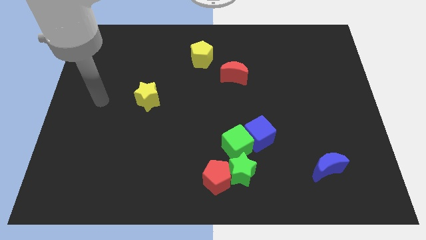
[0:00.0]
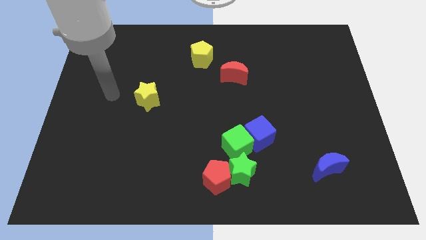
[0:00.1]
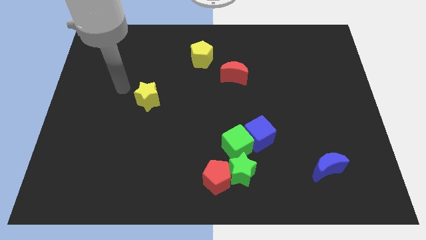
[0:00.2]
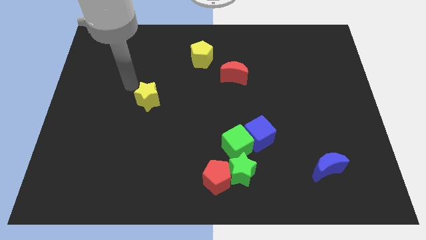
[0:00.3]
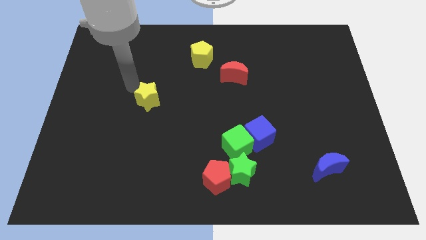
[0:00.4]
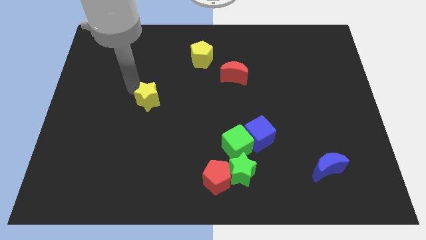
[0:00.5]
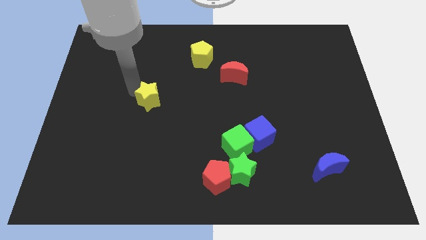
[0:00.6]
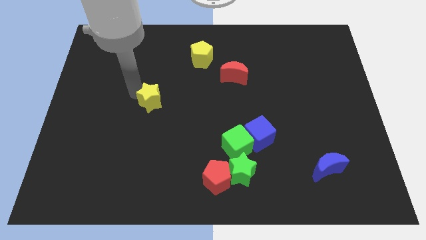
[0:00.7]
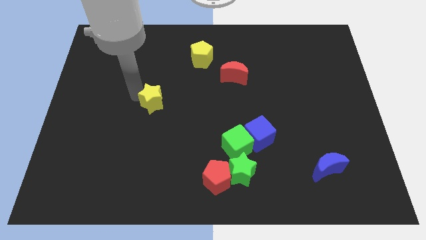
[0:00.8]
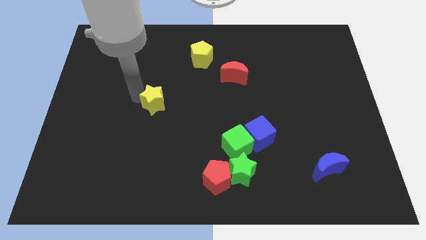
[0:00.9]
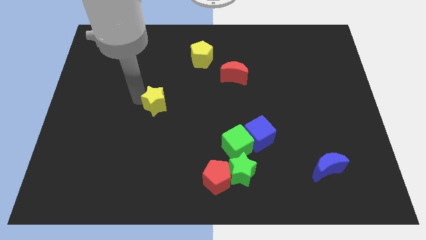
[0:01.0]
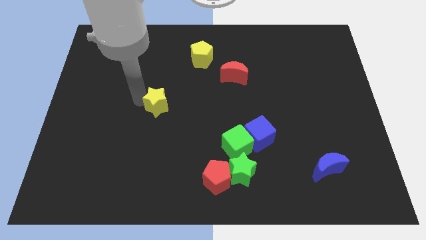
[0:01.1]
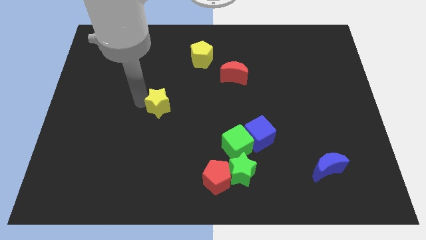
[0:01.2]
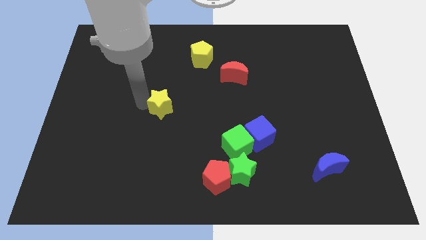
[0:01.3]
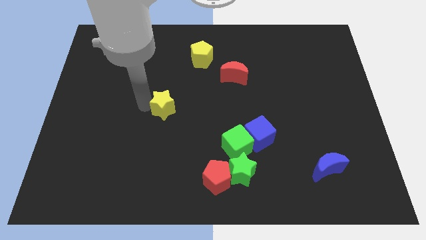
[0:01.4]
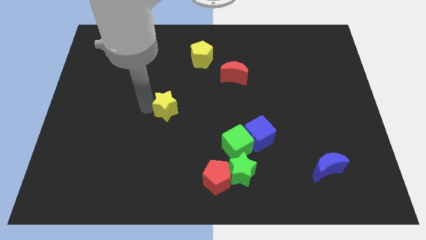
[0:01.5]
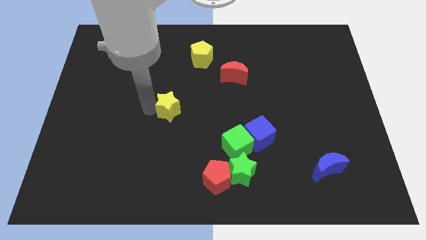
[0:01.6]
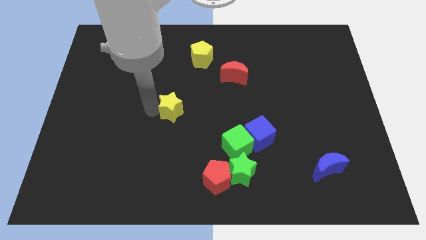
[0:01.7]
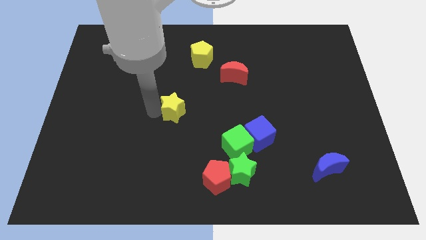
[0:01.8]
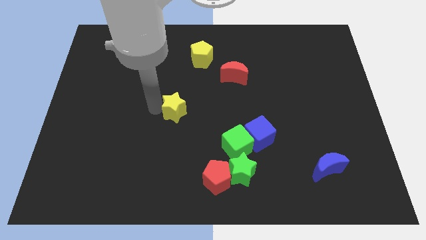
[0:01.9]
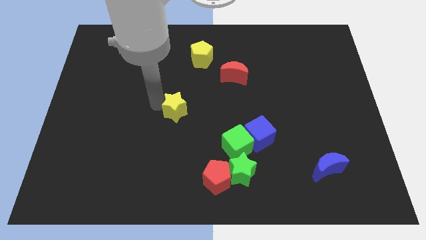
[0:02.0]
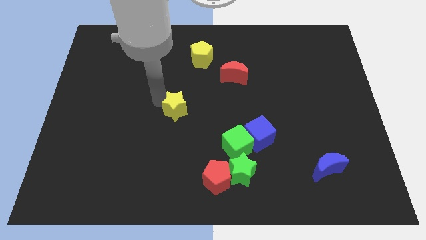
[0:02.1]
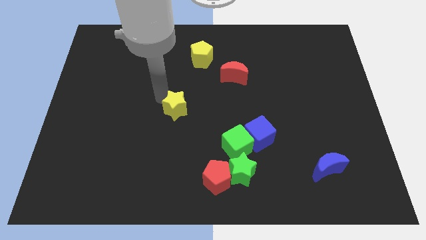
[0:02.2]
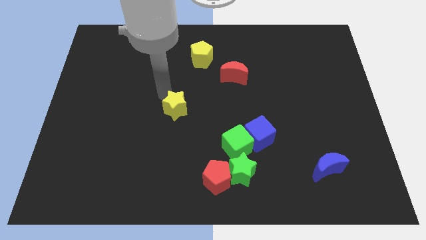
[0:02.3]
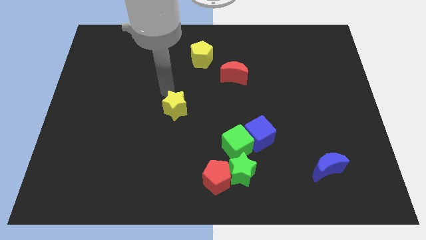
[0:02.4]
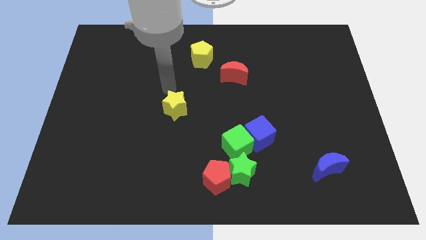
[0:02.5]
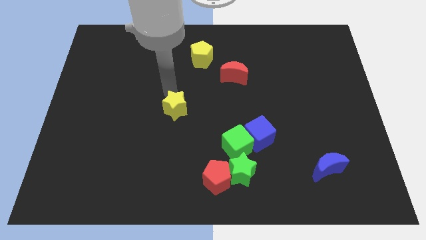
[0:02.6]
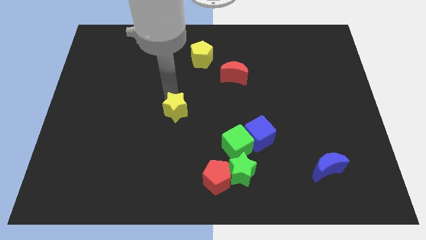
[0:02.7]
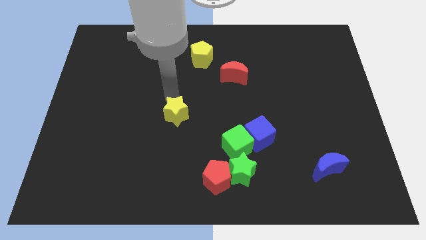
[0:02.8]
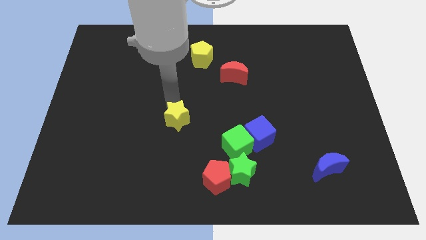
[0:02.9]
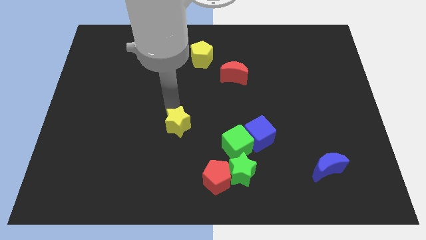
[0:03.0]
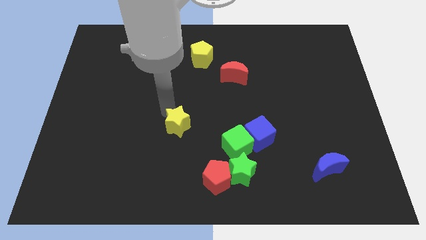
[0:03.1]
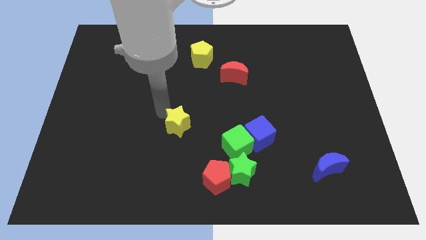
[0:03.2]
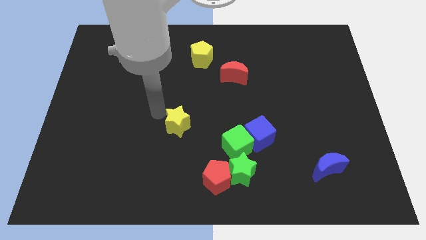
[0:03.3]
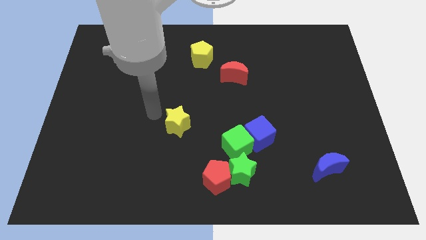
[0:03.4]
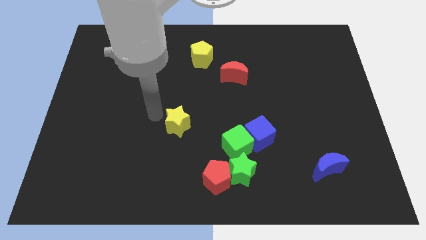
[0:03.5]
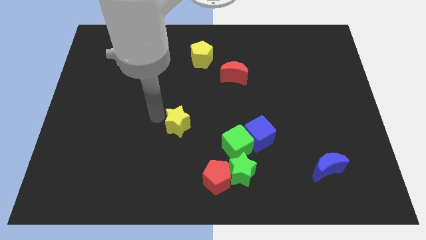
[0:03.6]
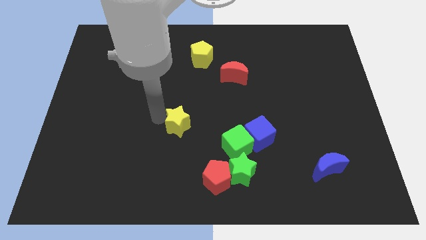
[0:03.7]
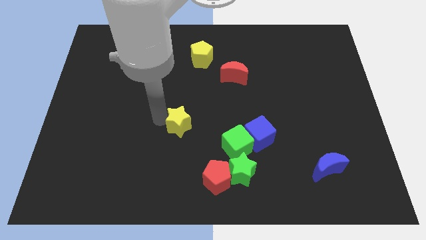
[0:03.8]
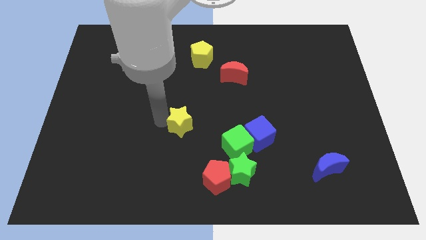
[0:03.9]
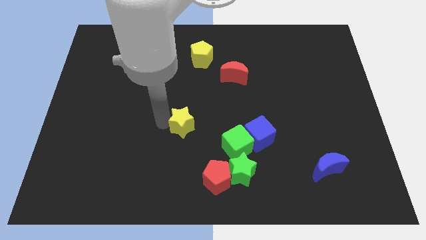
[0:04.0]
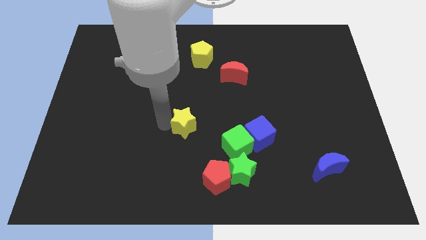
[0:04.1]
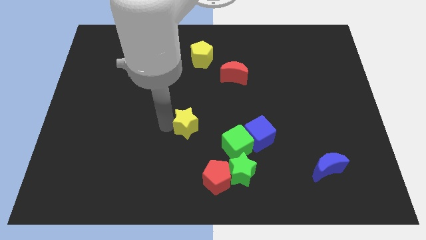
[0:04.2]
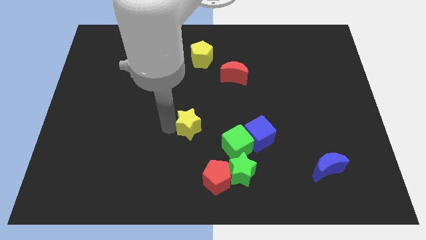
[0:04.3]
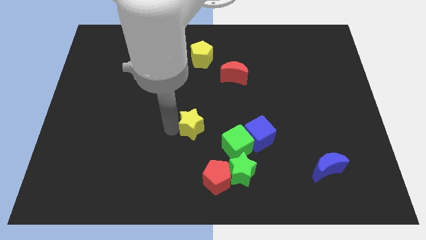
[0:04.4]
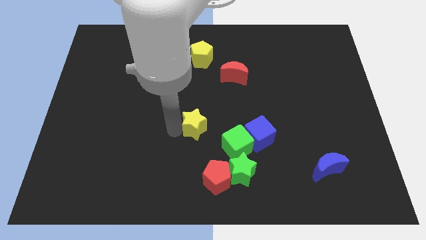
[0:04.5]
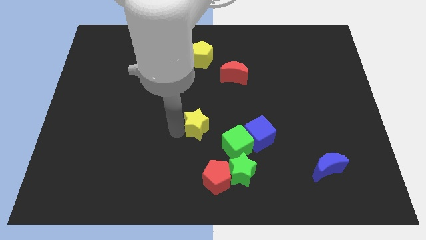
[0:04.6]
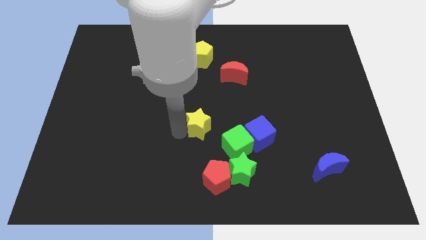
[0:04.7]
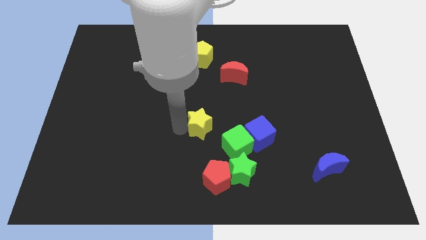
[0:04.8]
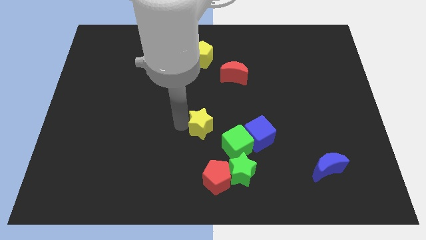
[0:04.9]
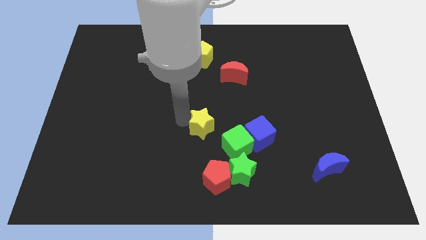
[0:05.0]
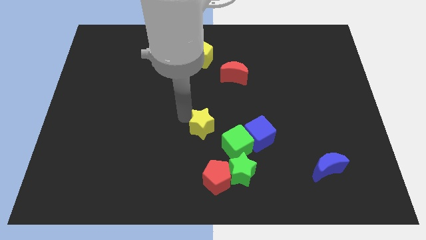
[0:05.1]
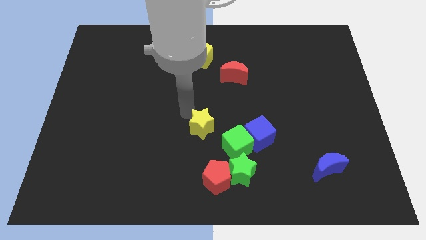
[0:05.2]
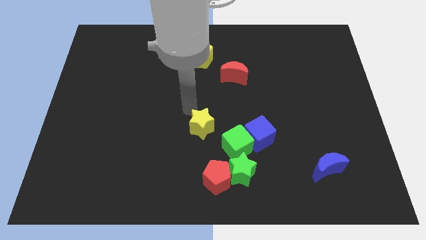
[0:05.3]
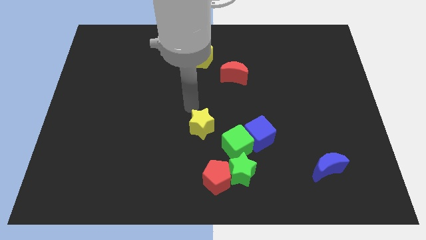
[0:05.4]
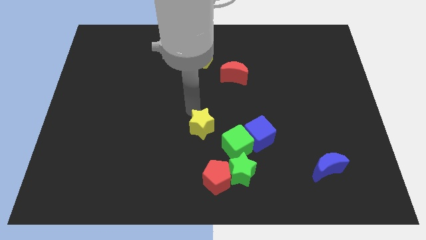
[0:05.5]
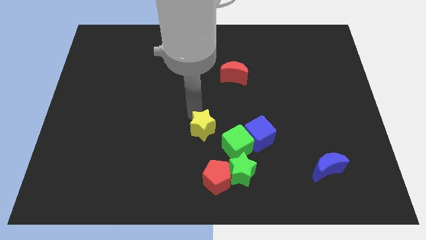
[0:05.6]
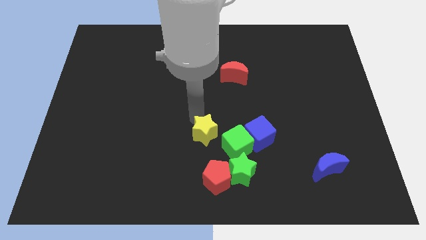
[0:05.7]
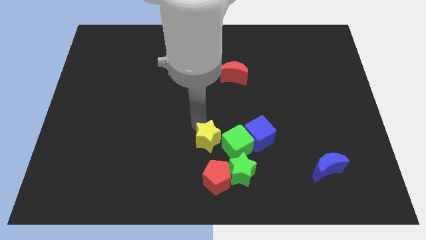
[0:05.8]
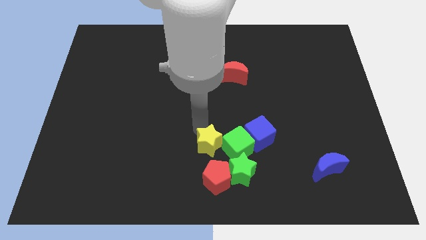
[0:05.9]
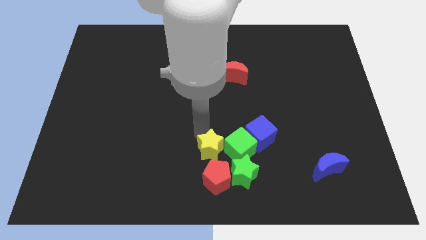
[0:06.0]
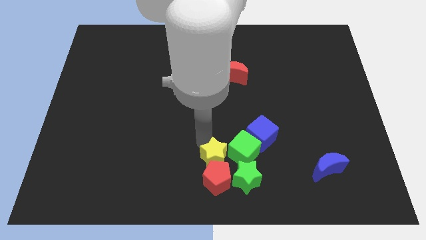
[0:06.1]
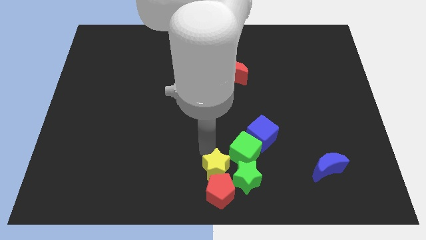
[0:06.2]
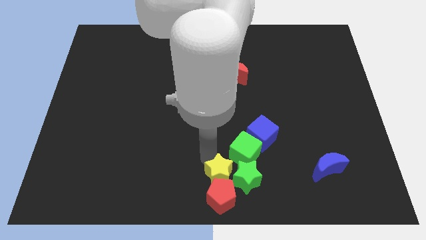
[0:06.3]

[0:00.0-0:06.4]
push the yellow star next to the green star
